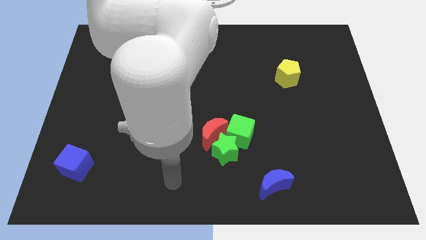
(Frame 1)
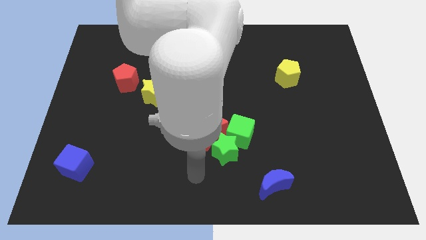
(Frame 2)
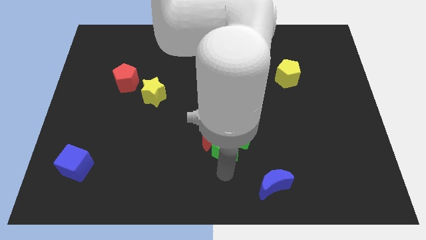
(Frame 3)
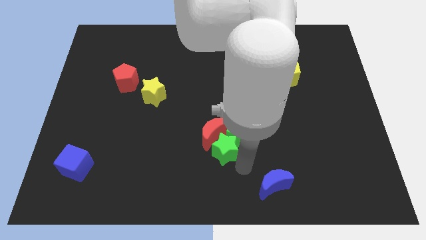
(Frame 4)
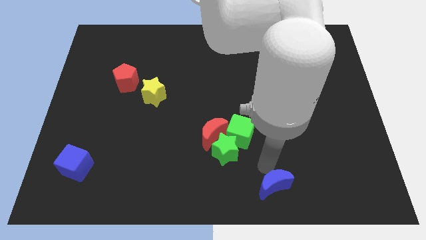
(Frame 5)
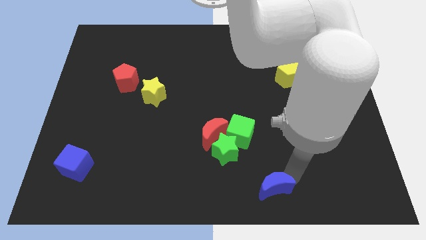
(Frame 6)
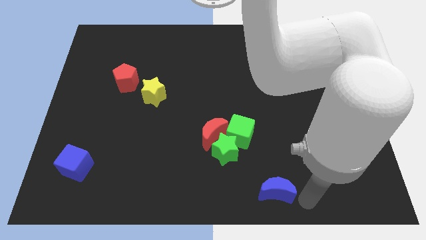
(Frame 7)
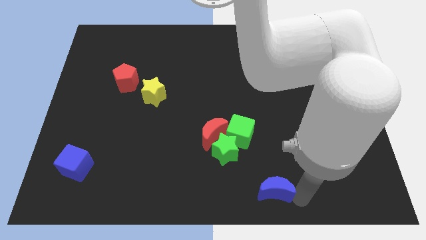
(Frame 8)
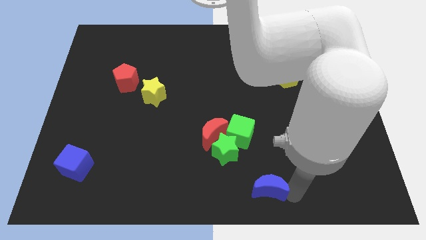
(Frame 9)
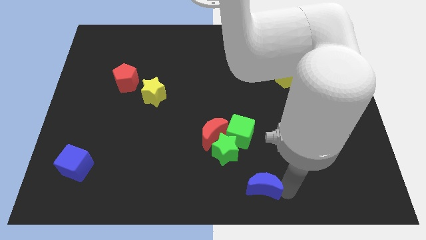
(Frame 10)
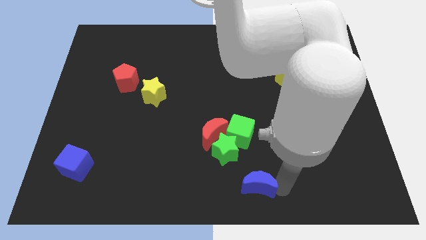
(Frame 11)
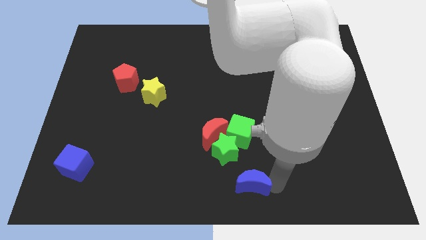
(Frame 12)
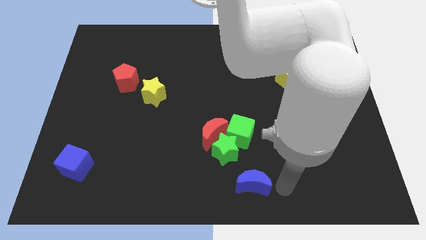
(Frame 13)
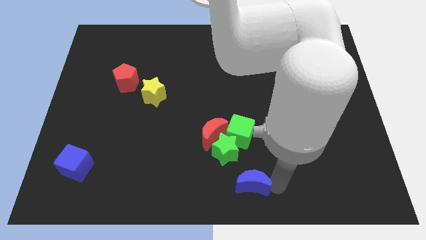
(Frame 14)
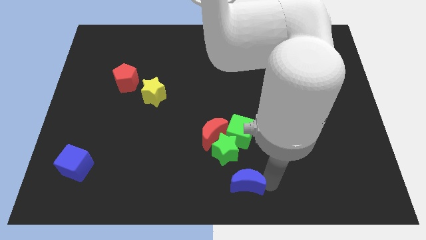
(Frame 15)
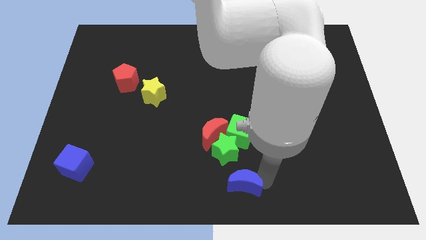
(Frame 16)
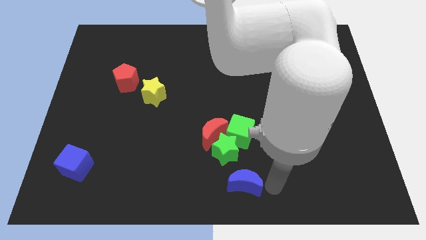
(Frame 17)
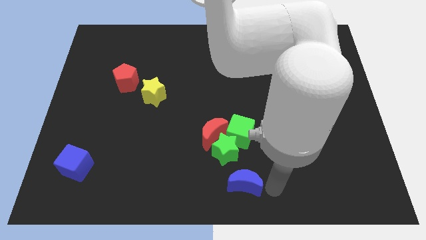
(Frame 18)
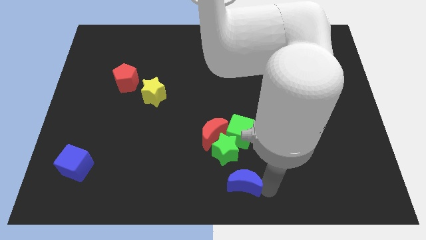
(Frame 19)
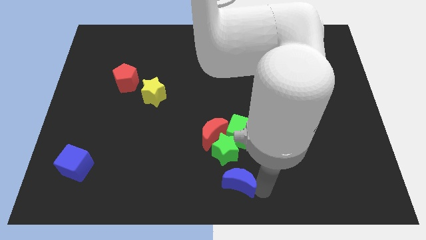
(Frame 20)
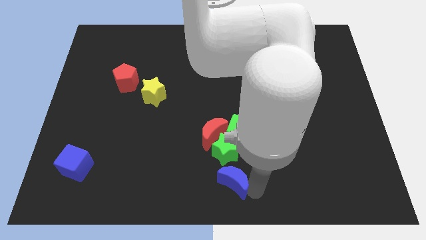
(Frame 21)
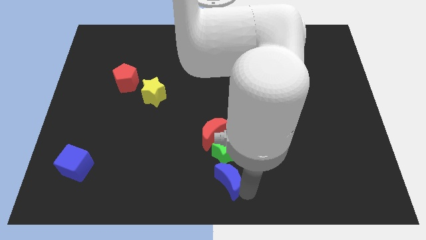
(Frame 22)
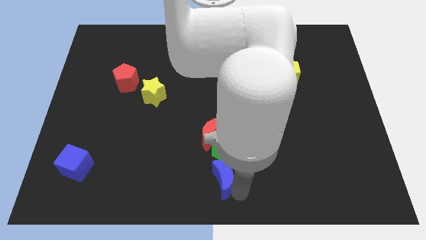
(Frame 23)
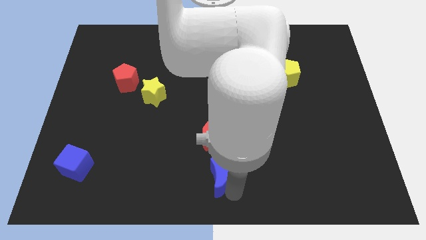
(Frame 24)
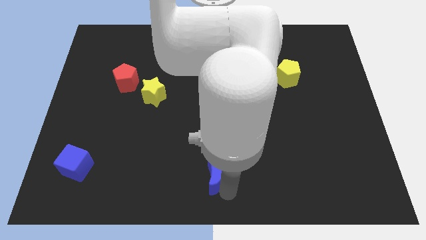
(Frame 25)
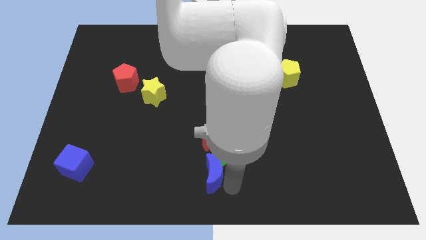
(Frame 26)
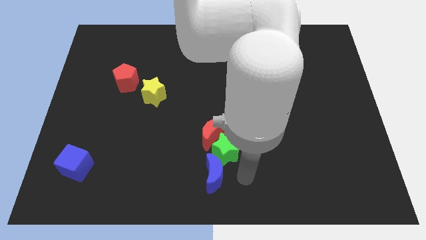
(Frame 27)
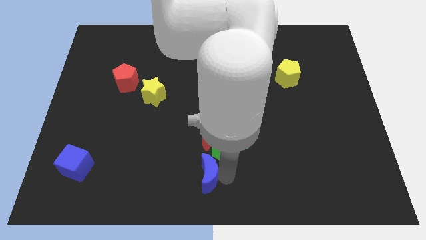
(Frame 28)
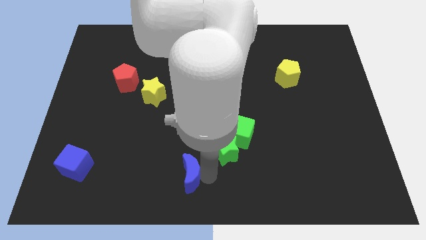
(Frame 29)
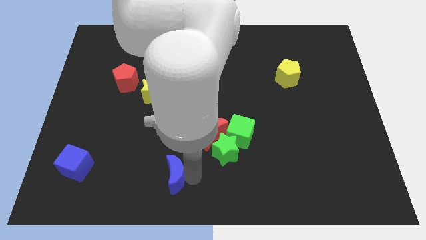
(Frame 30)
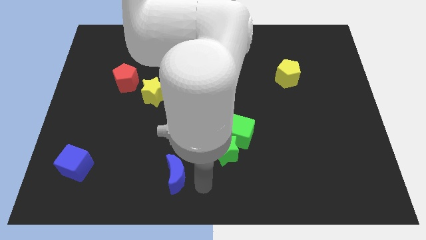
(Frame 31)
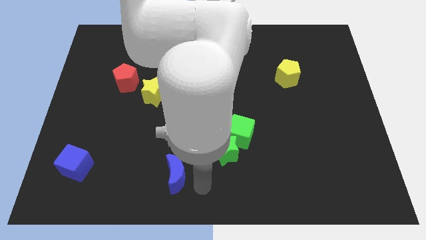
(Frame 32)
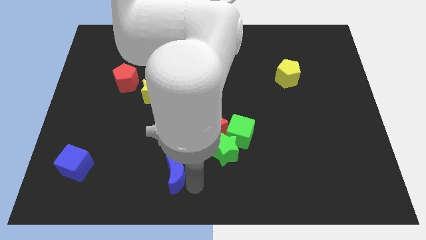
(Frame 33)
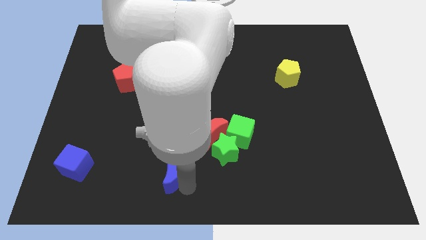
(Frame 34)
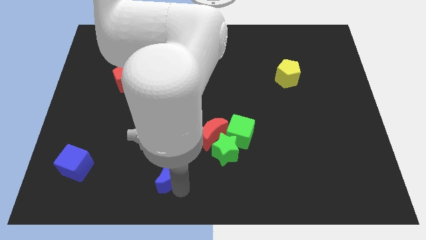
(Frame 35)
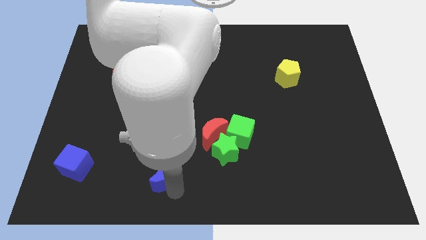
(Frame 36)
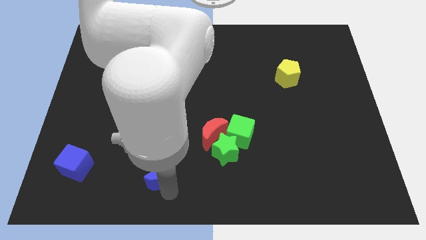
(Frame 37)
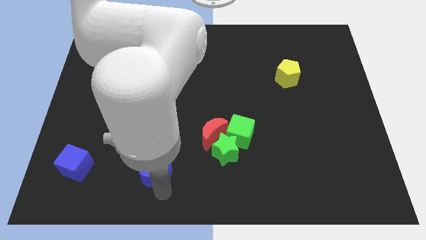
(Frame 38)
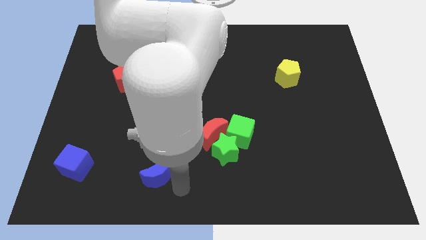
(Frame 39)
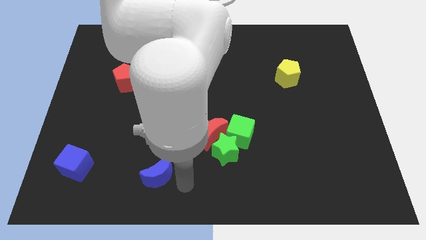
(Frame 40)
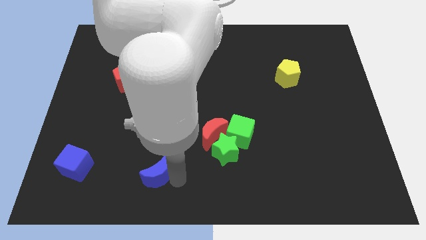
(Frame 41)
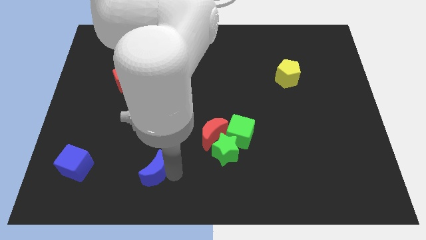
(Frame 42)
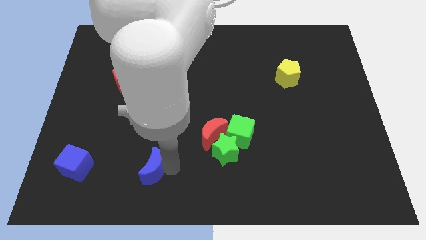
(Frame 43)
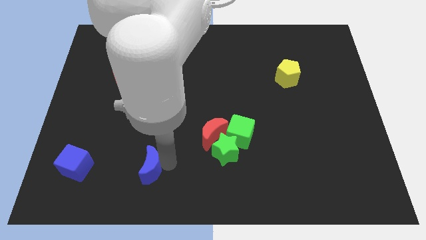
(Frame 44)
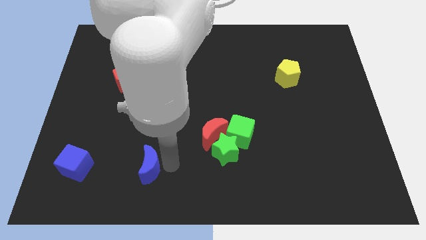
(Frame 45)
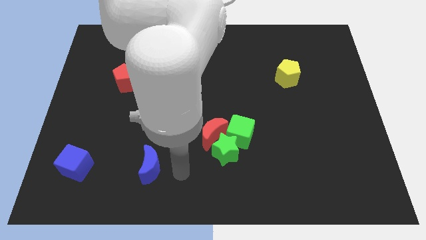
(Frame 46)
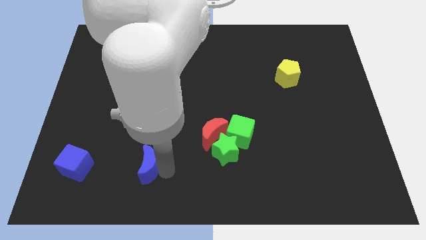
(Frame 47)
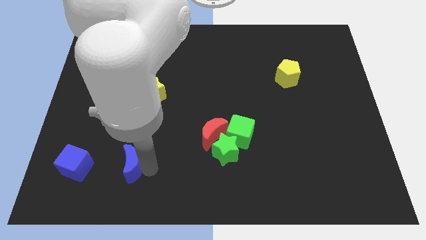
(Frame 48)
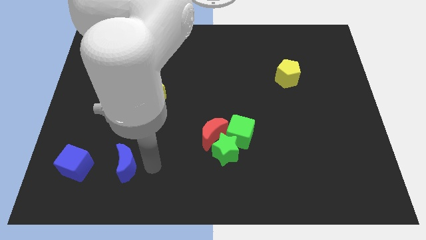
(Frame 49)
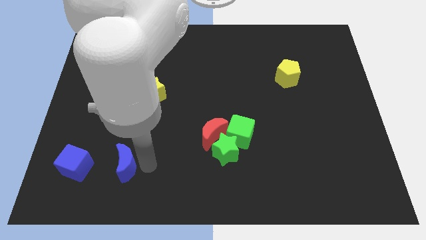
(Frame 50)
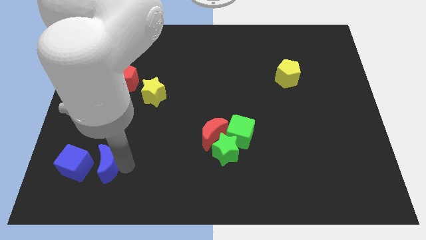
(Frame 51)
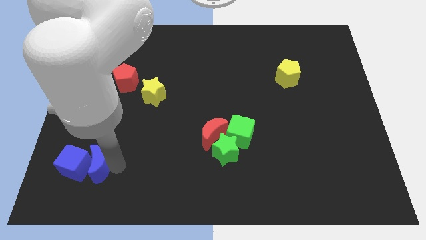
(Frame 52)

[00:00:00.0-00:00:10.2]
slide the blue moon next to the blue cube

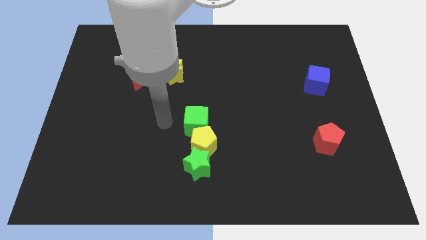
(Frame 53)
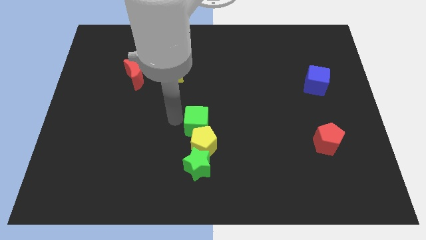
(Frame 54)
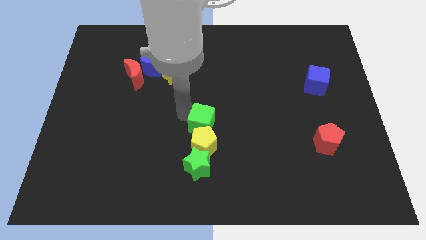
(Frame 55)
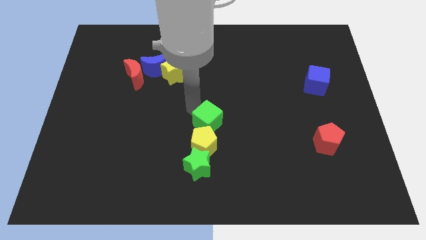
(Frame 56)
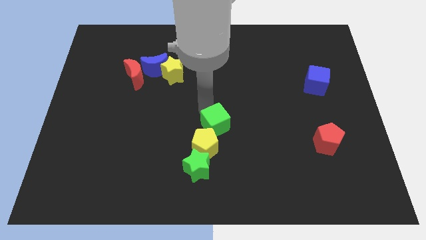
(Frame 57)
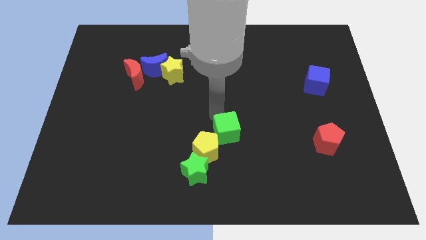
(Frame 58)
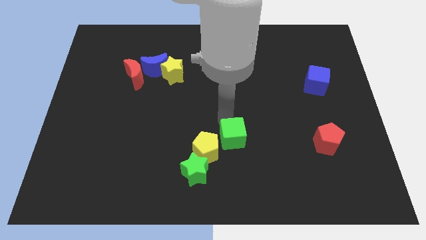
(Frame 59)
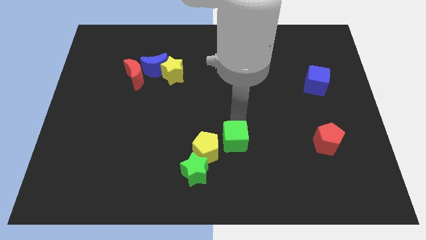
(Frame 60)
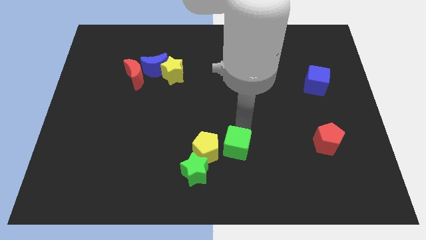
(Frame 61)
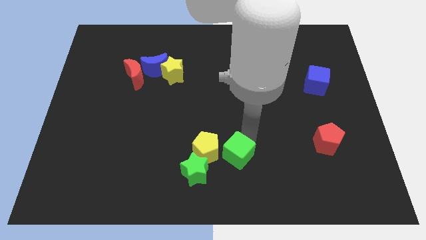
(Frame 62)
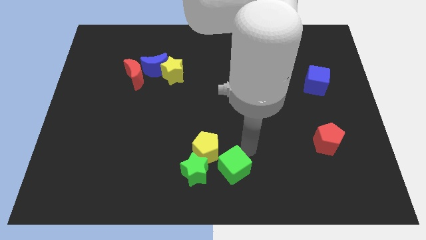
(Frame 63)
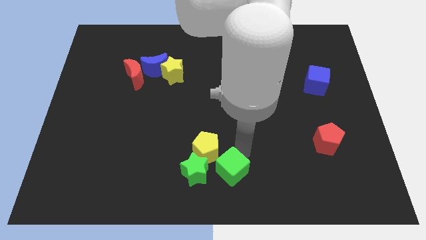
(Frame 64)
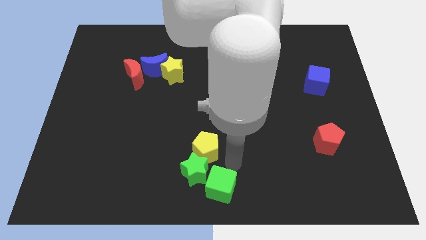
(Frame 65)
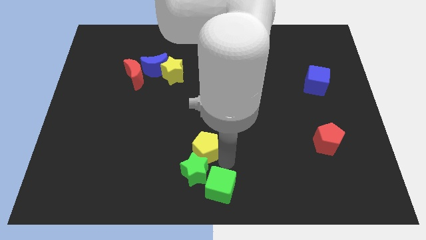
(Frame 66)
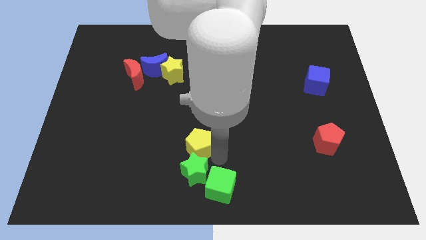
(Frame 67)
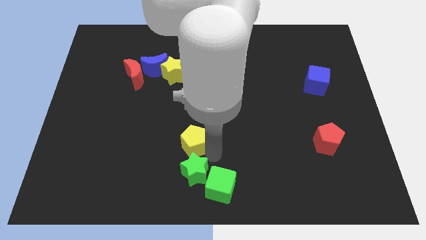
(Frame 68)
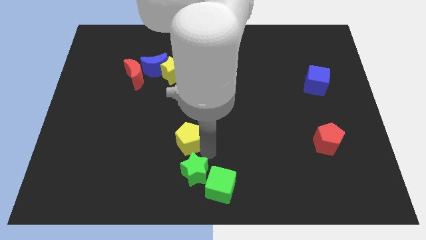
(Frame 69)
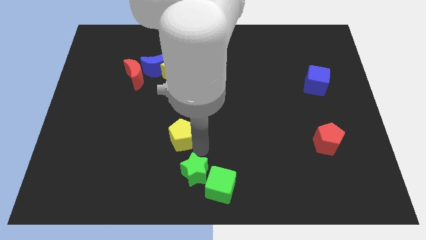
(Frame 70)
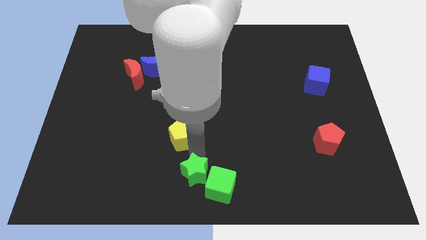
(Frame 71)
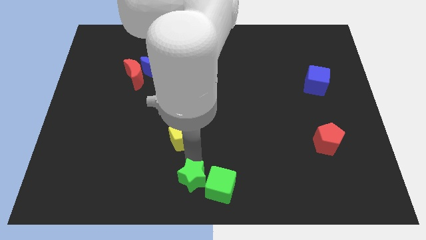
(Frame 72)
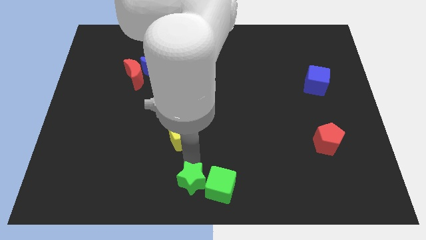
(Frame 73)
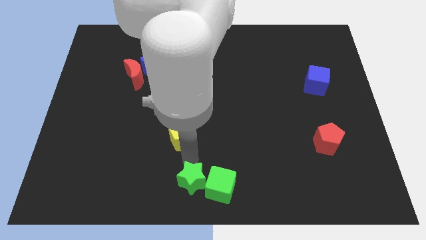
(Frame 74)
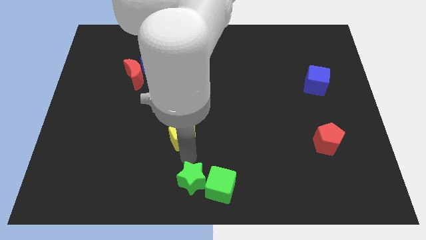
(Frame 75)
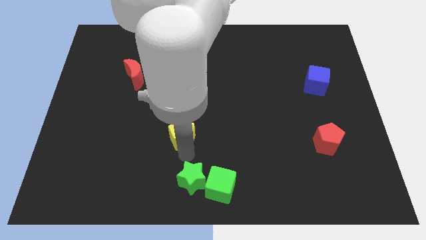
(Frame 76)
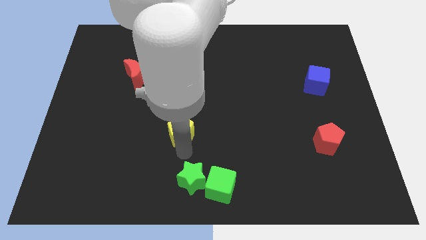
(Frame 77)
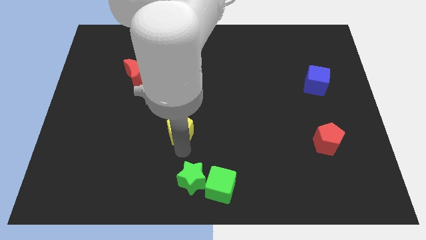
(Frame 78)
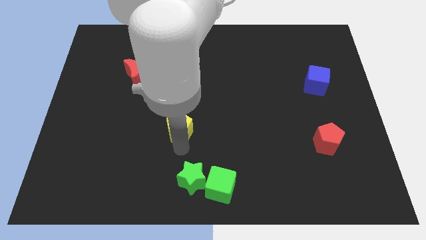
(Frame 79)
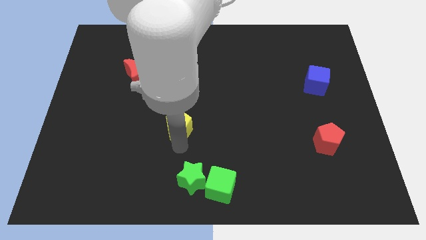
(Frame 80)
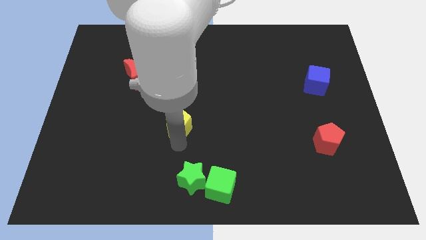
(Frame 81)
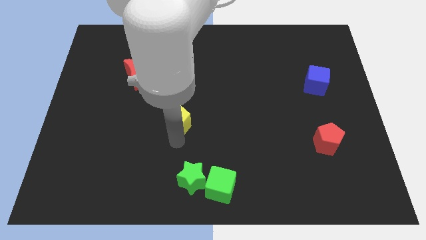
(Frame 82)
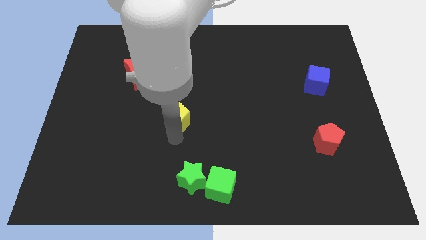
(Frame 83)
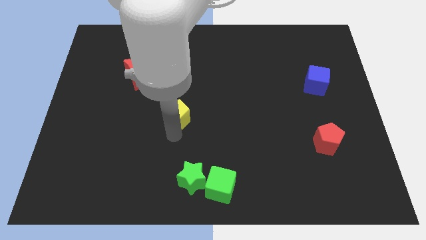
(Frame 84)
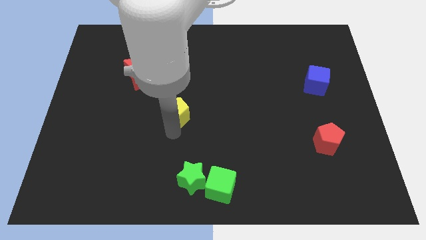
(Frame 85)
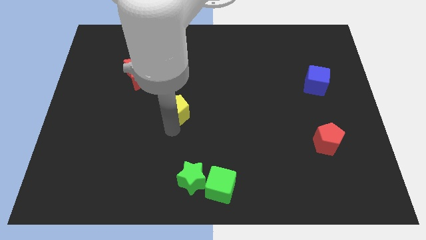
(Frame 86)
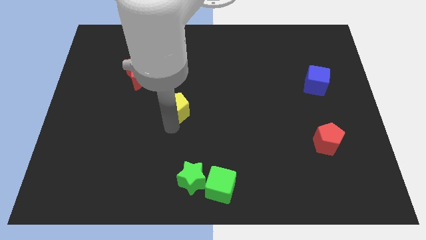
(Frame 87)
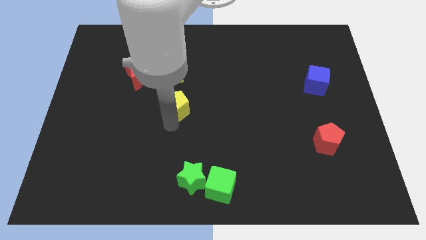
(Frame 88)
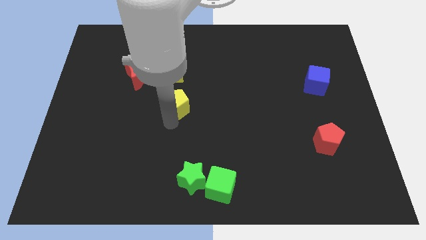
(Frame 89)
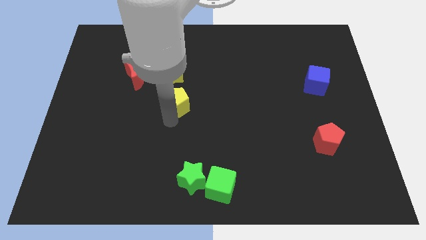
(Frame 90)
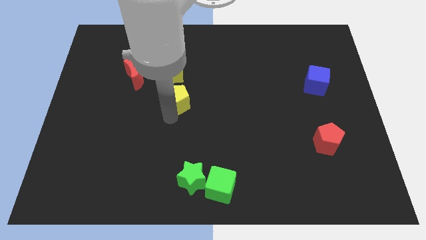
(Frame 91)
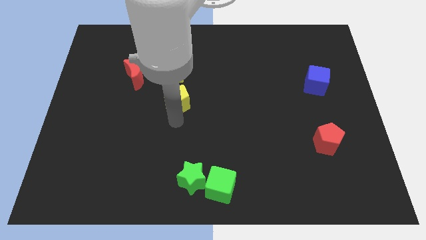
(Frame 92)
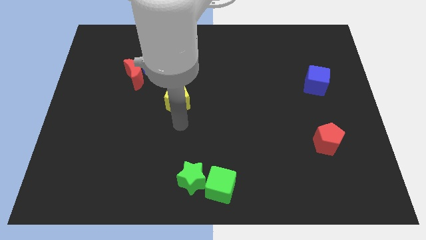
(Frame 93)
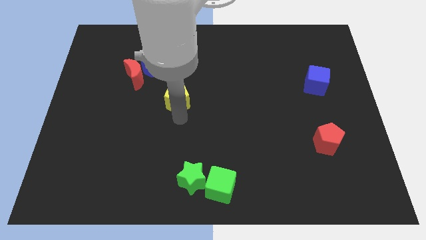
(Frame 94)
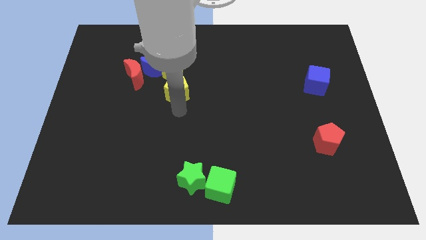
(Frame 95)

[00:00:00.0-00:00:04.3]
move the yellow pentagon to the yellow star
